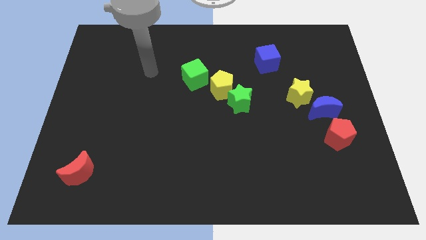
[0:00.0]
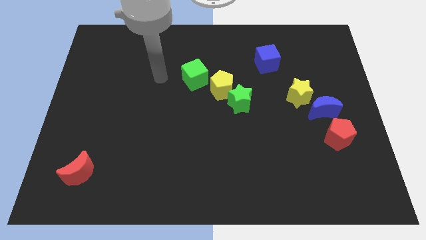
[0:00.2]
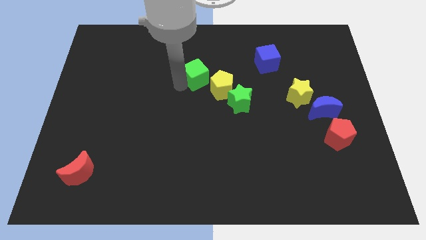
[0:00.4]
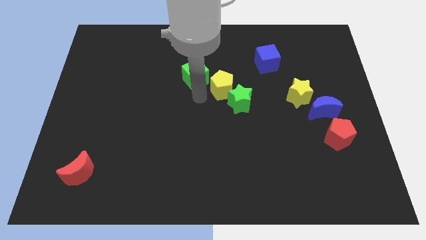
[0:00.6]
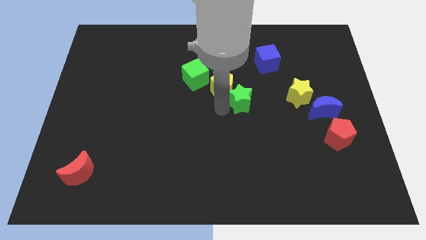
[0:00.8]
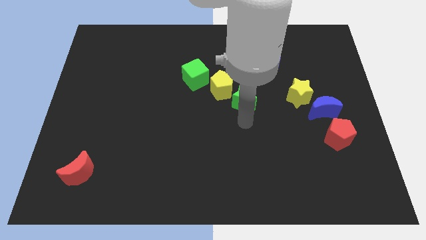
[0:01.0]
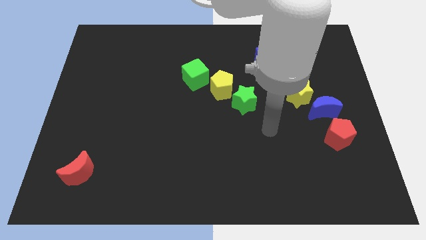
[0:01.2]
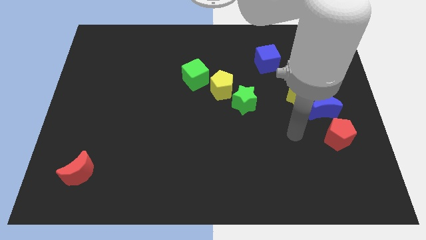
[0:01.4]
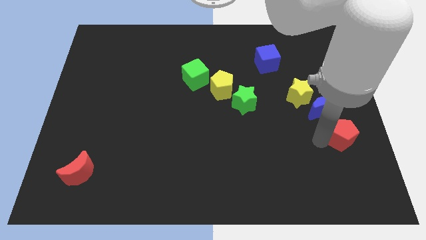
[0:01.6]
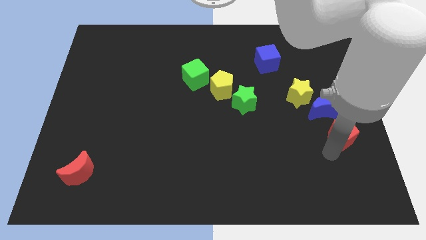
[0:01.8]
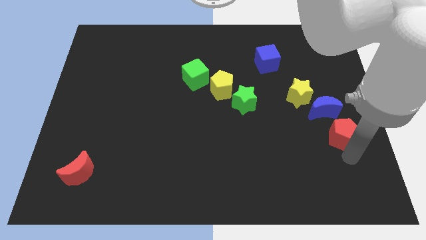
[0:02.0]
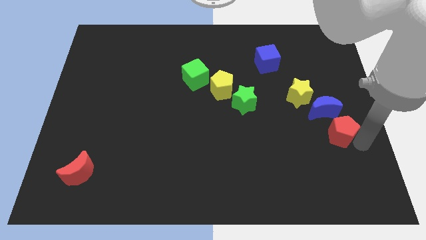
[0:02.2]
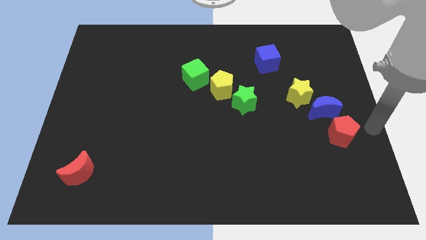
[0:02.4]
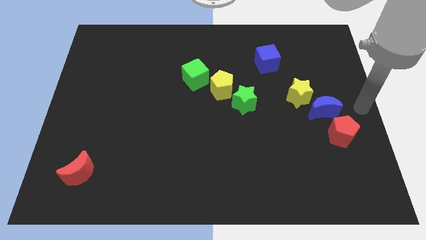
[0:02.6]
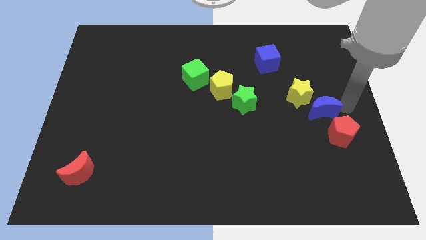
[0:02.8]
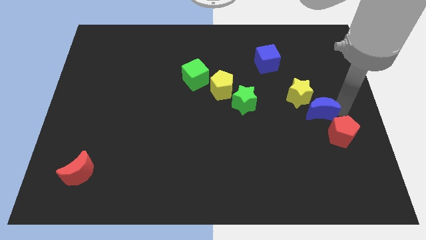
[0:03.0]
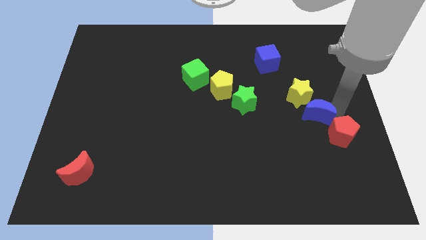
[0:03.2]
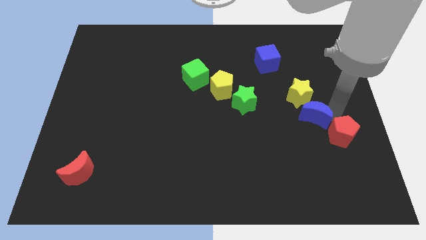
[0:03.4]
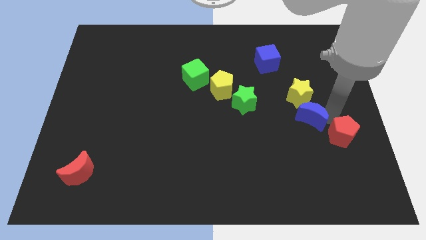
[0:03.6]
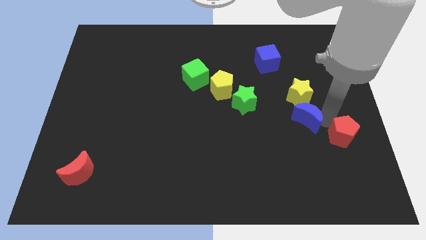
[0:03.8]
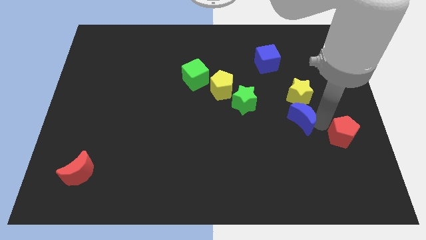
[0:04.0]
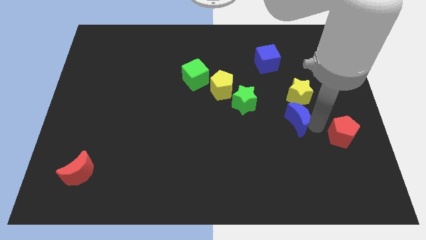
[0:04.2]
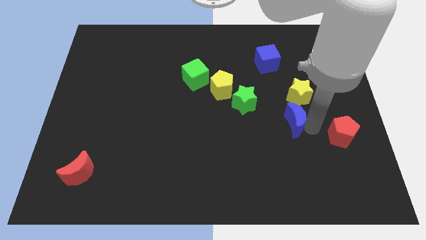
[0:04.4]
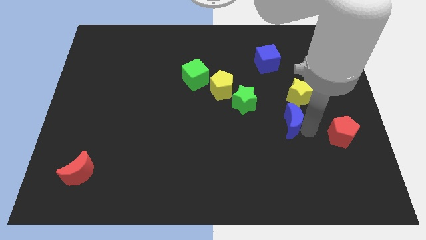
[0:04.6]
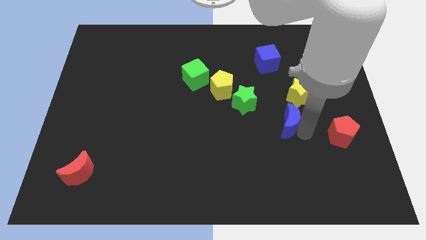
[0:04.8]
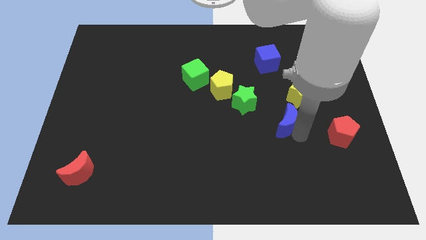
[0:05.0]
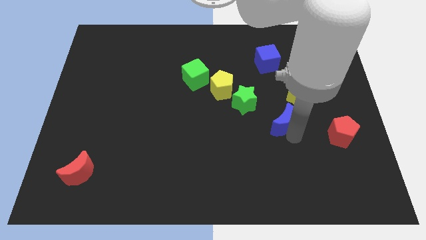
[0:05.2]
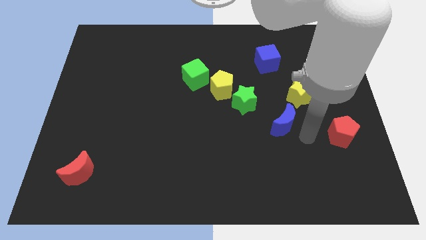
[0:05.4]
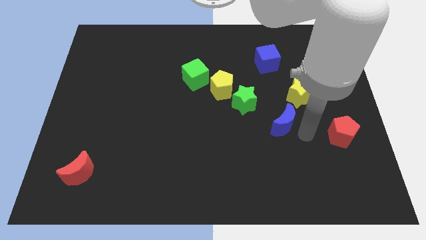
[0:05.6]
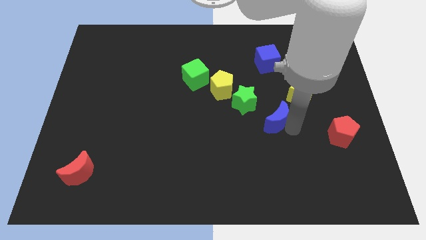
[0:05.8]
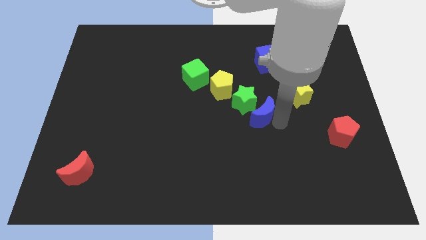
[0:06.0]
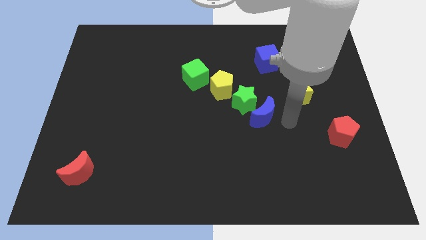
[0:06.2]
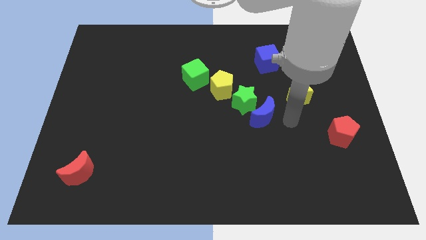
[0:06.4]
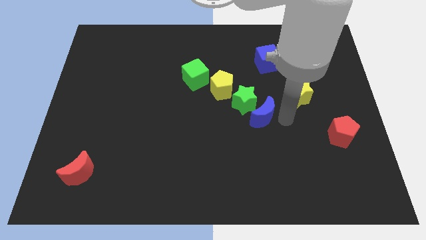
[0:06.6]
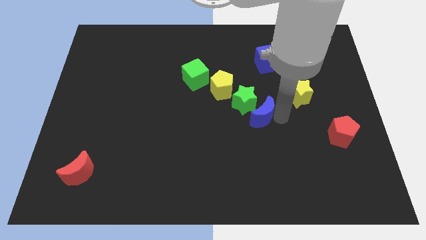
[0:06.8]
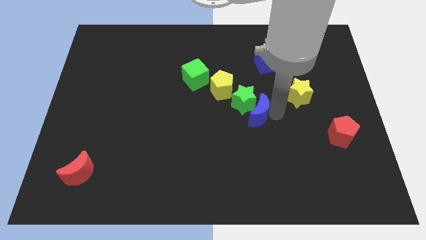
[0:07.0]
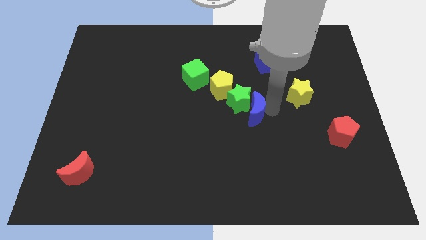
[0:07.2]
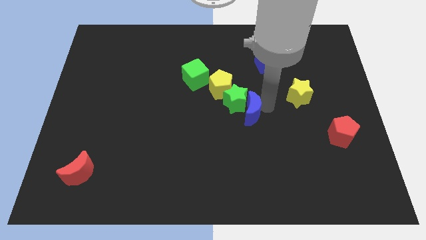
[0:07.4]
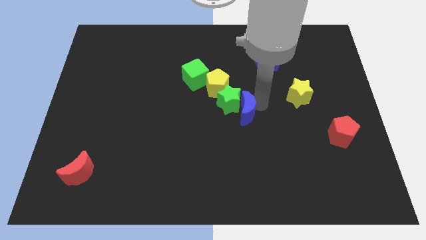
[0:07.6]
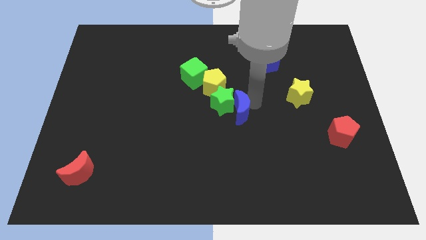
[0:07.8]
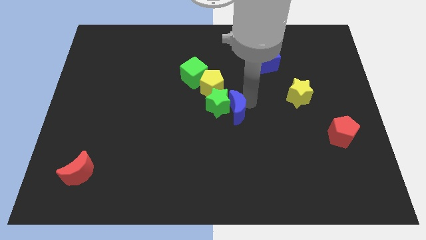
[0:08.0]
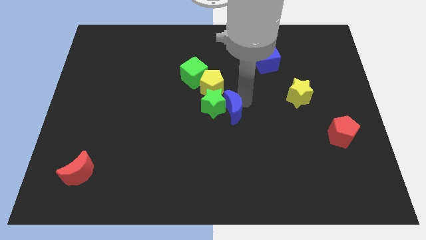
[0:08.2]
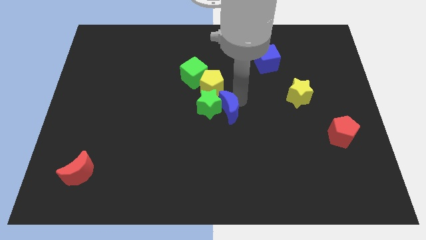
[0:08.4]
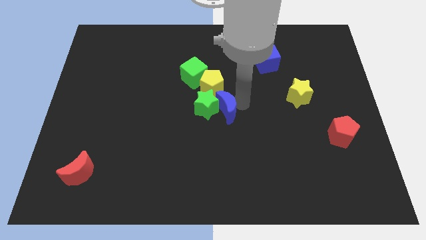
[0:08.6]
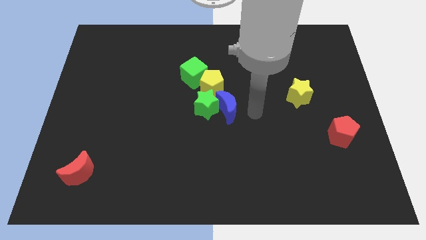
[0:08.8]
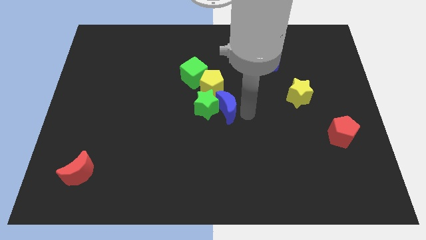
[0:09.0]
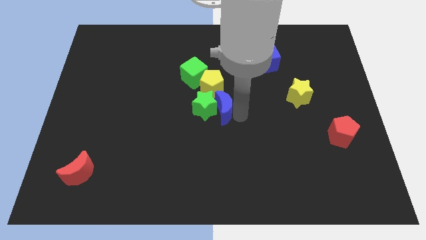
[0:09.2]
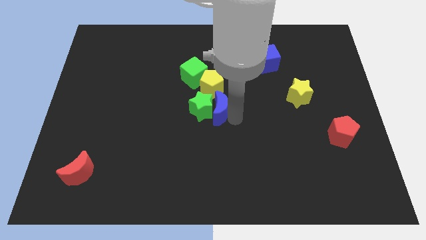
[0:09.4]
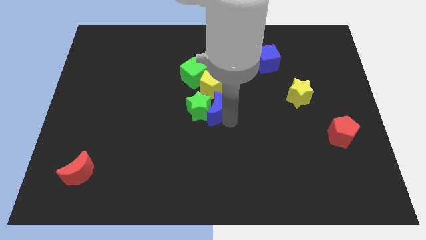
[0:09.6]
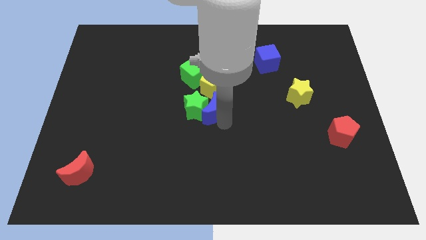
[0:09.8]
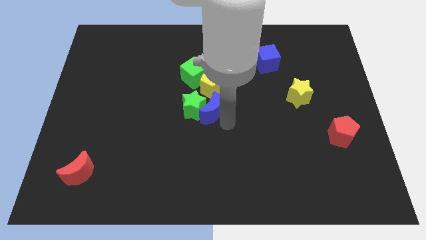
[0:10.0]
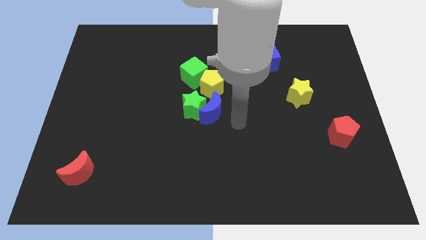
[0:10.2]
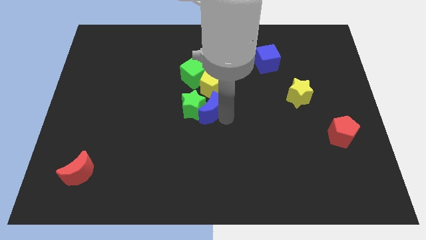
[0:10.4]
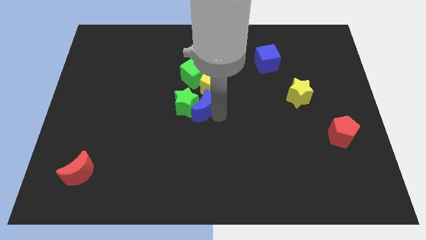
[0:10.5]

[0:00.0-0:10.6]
push the blue moon to the bottom left of the yellow pentagon

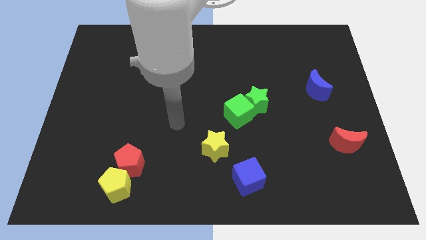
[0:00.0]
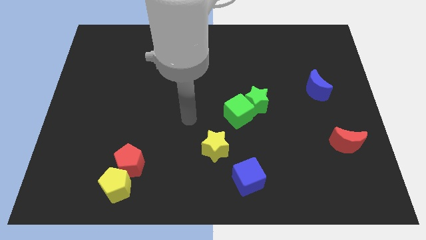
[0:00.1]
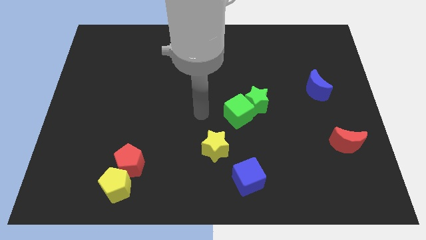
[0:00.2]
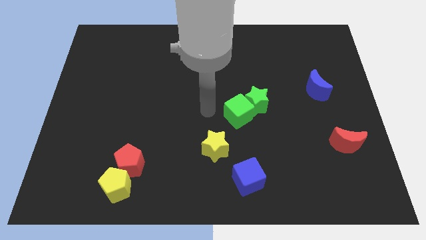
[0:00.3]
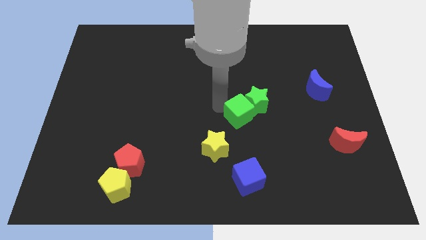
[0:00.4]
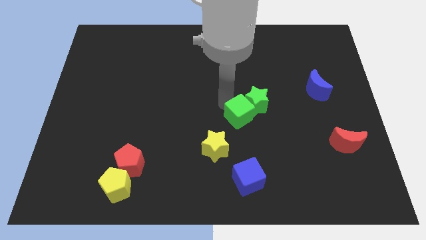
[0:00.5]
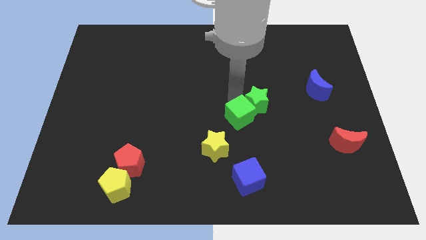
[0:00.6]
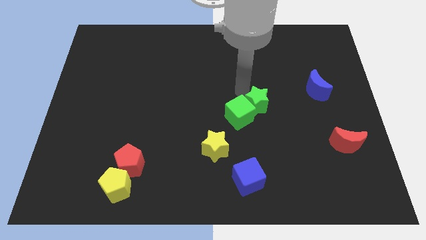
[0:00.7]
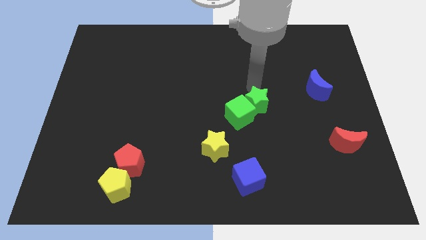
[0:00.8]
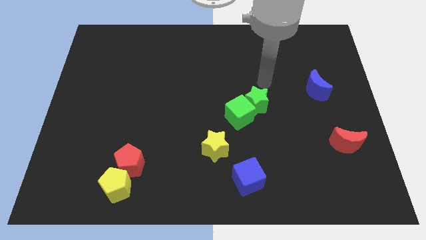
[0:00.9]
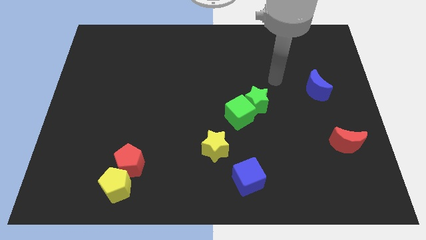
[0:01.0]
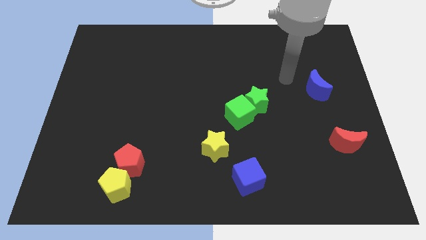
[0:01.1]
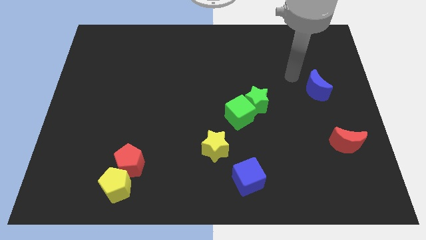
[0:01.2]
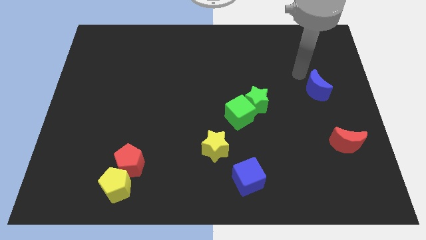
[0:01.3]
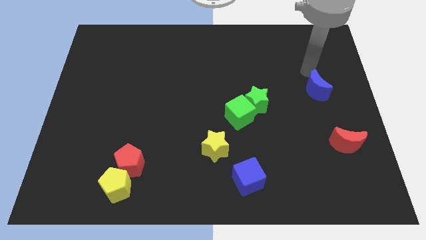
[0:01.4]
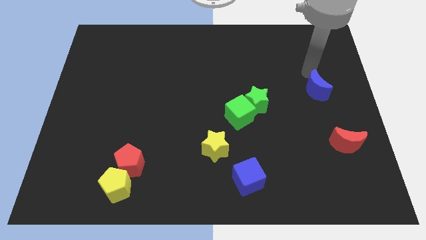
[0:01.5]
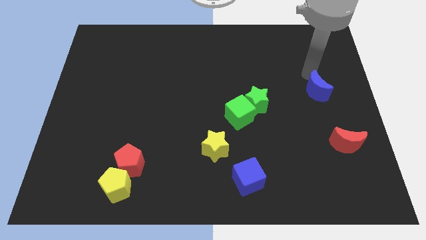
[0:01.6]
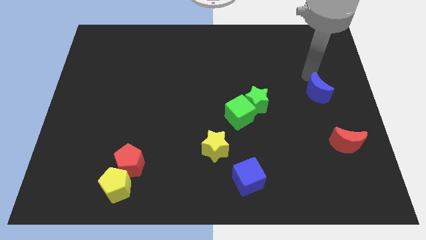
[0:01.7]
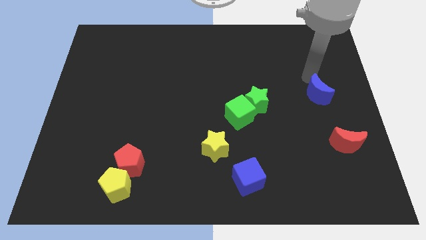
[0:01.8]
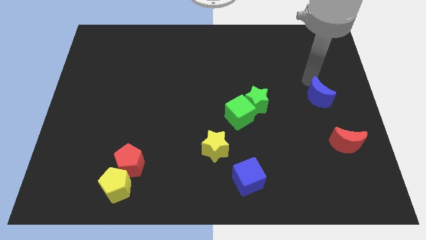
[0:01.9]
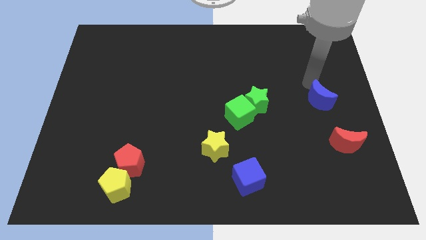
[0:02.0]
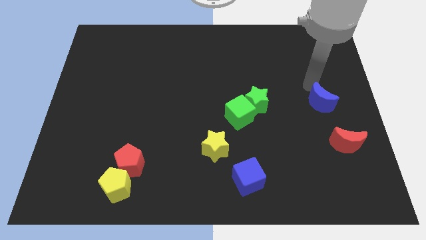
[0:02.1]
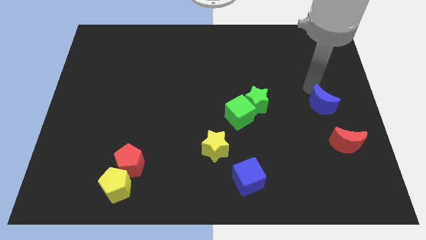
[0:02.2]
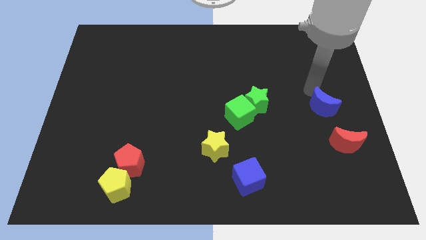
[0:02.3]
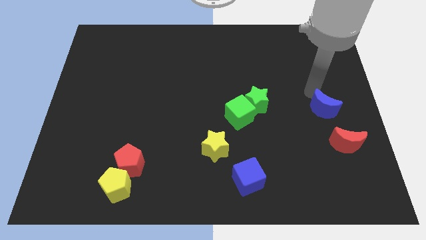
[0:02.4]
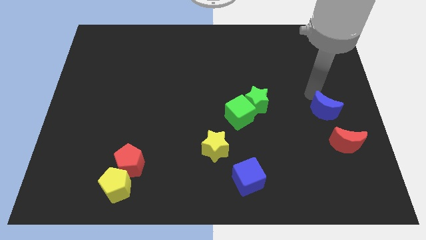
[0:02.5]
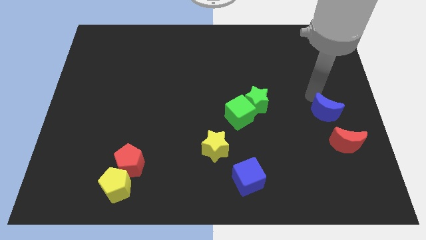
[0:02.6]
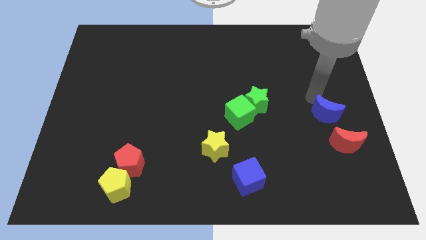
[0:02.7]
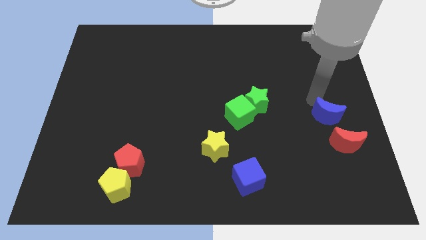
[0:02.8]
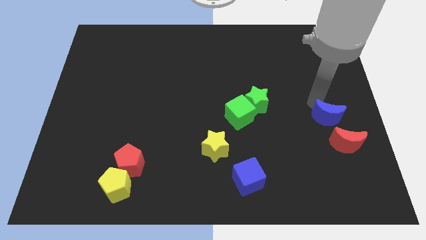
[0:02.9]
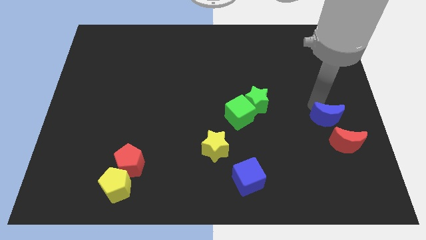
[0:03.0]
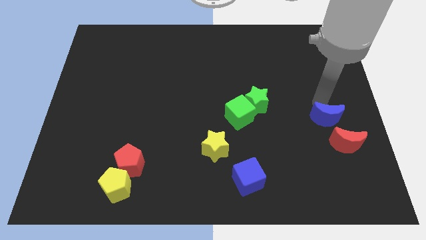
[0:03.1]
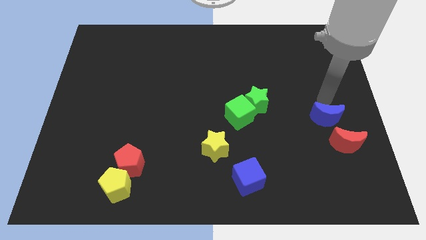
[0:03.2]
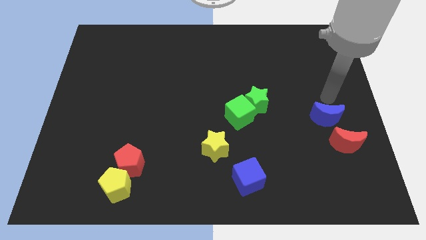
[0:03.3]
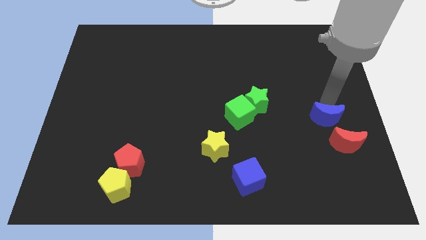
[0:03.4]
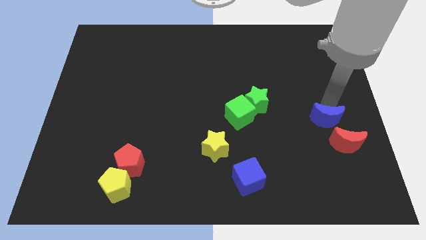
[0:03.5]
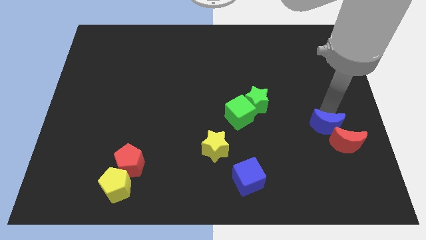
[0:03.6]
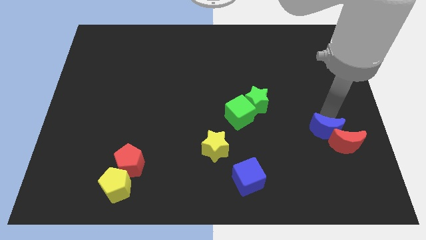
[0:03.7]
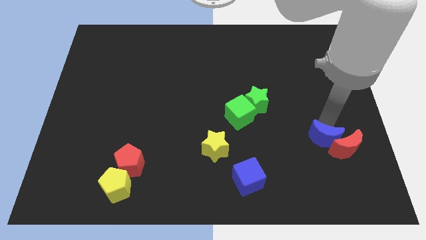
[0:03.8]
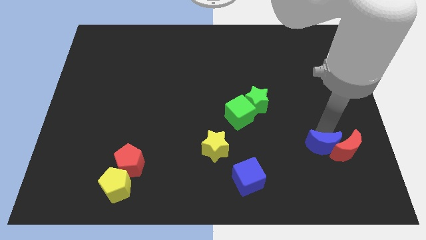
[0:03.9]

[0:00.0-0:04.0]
push the blue moon to the bottom left side of the red moon
